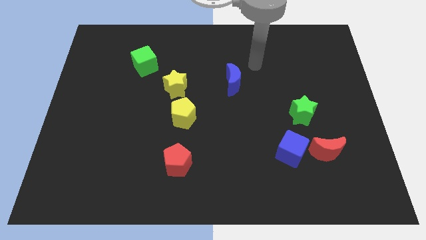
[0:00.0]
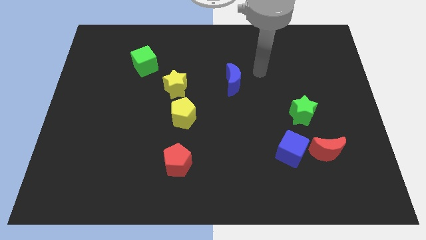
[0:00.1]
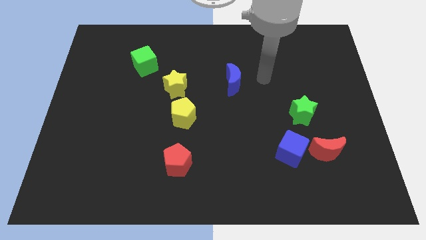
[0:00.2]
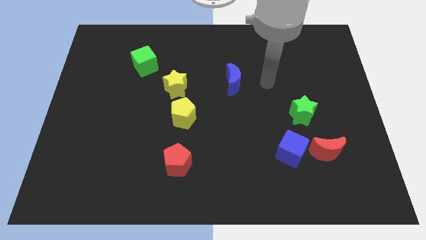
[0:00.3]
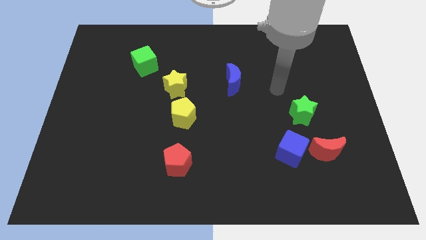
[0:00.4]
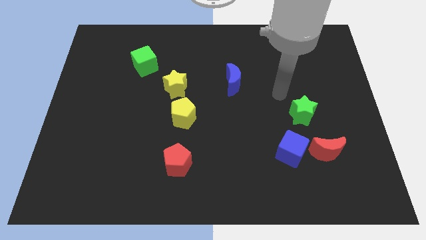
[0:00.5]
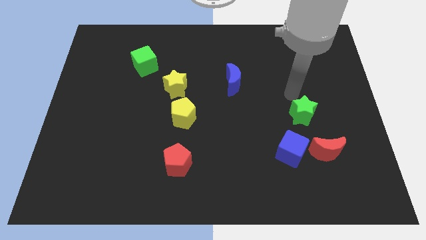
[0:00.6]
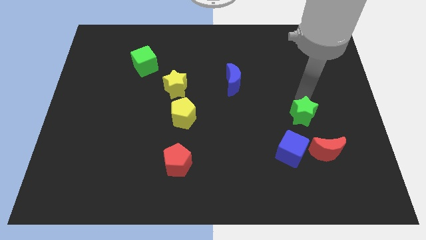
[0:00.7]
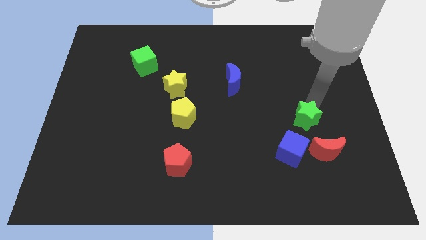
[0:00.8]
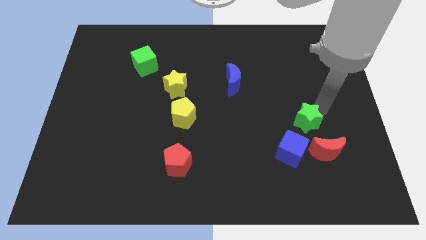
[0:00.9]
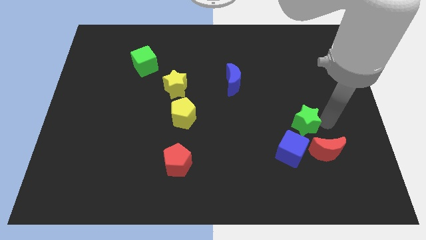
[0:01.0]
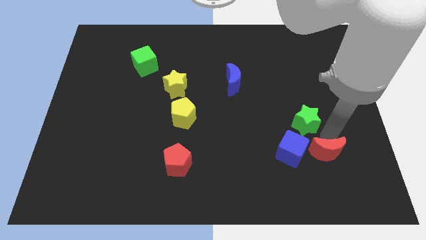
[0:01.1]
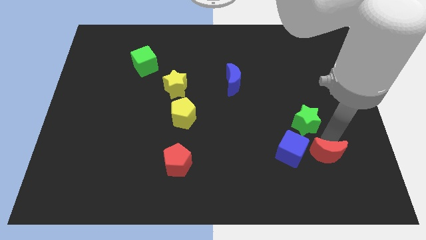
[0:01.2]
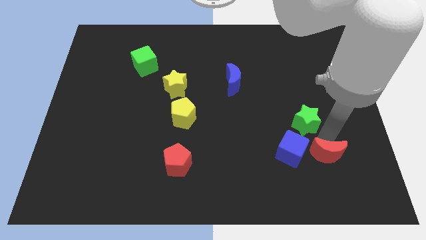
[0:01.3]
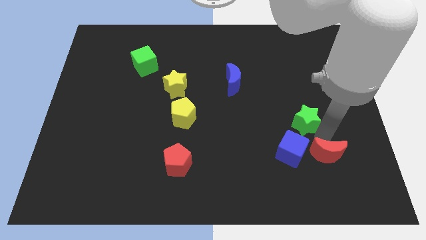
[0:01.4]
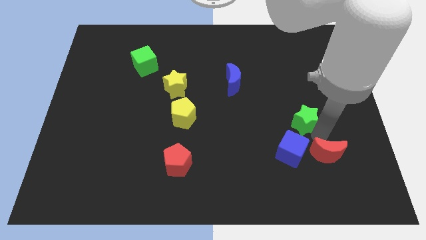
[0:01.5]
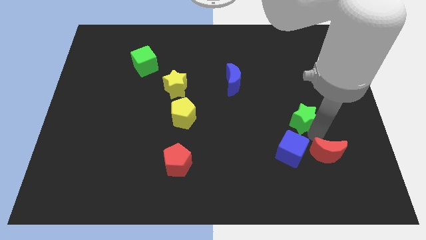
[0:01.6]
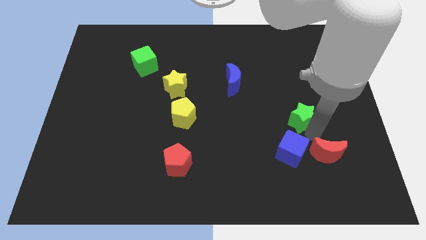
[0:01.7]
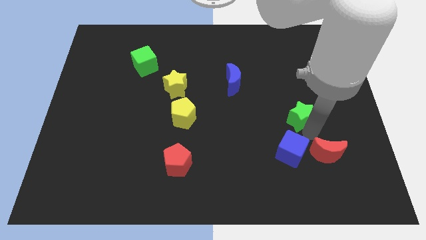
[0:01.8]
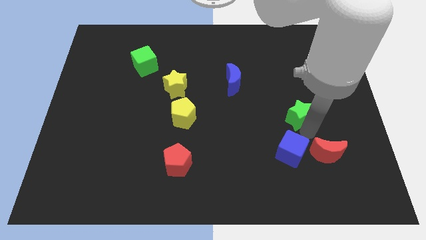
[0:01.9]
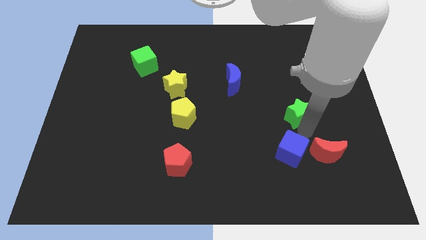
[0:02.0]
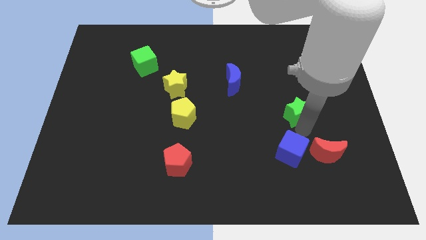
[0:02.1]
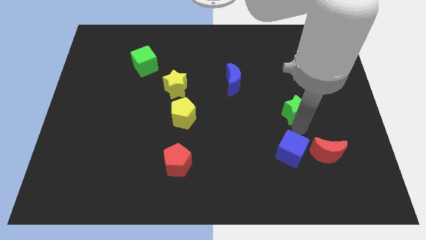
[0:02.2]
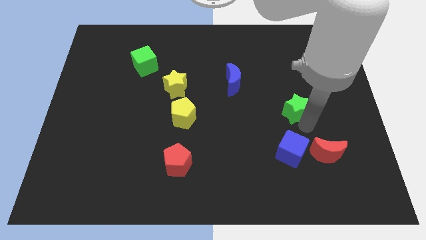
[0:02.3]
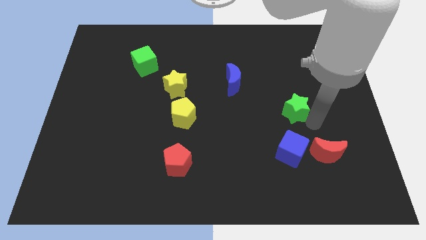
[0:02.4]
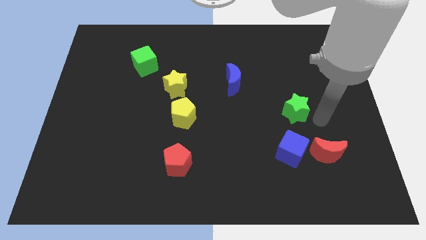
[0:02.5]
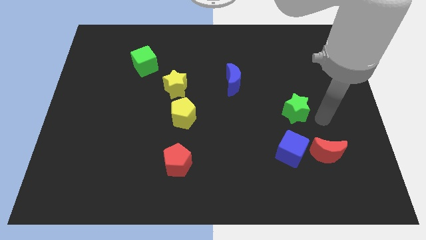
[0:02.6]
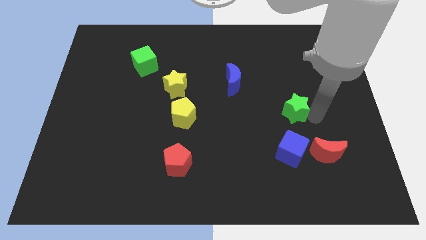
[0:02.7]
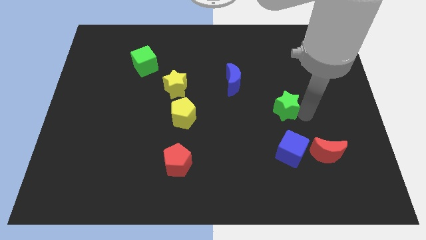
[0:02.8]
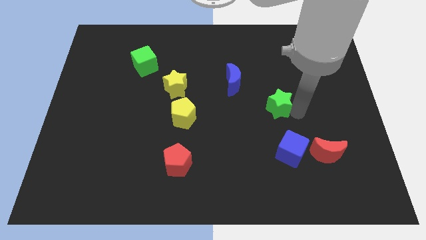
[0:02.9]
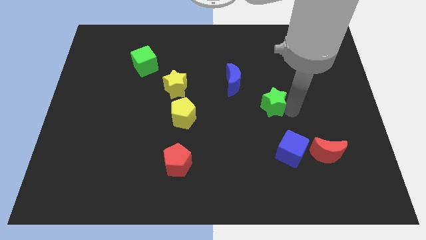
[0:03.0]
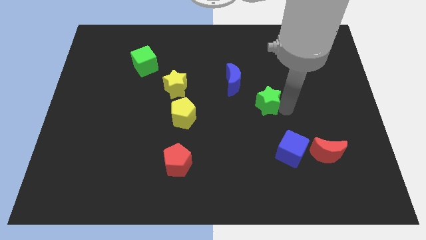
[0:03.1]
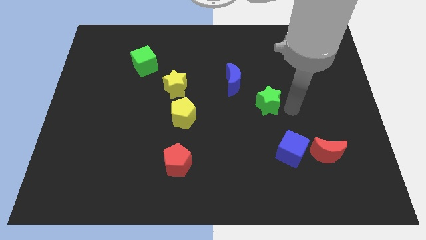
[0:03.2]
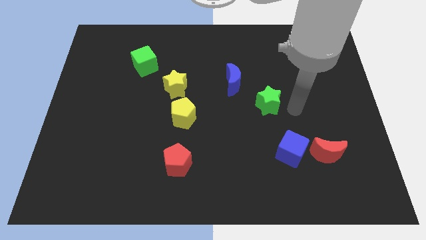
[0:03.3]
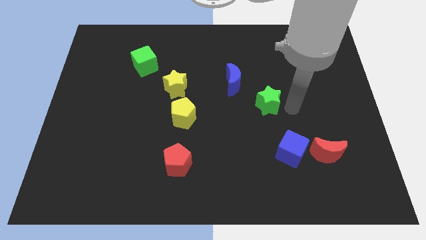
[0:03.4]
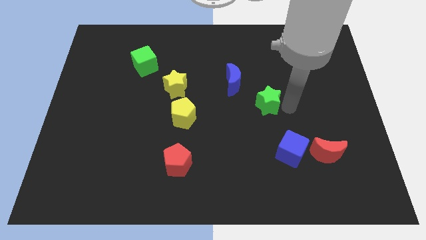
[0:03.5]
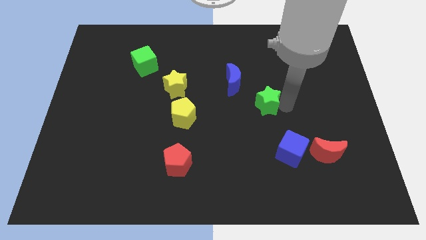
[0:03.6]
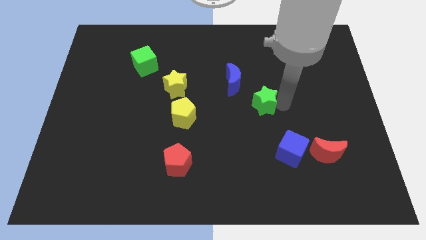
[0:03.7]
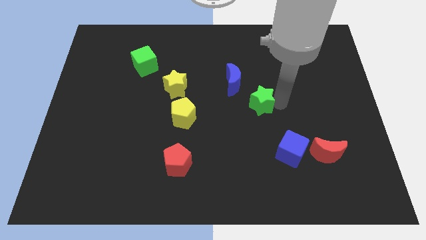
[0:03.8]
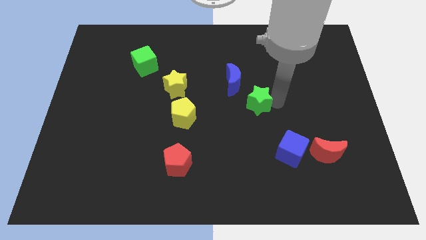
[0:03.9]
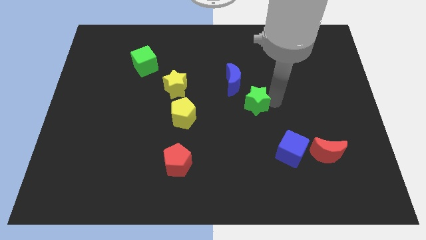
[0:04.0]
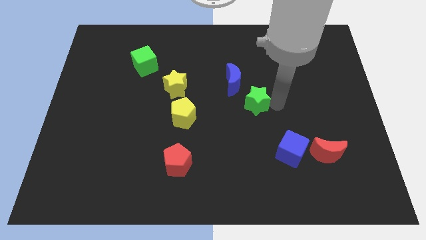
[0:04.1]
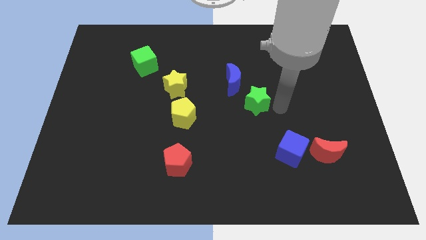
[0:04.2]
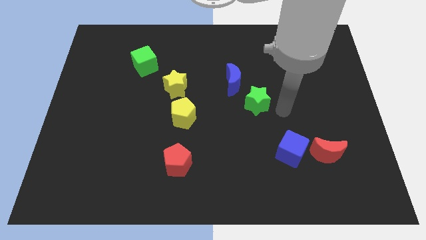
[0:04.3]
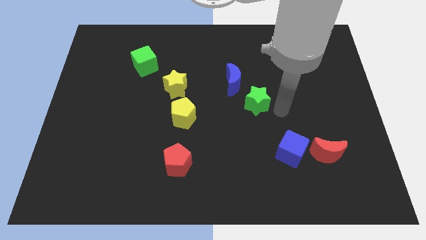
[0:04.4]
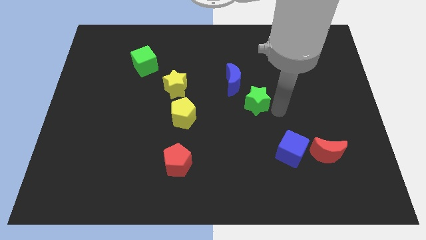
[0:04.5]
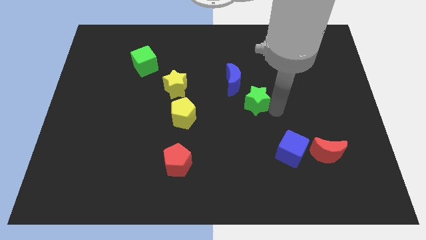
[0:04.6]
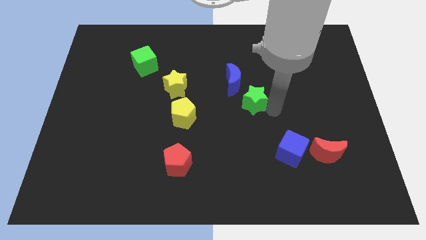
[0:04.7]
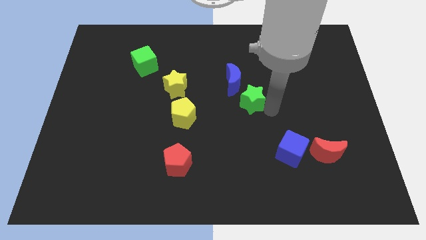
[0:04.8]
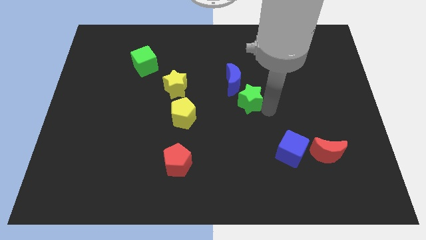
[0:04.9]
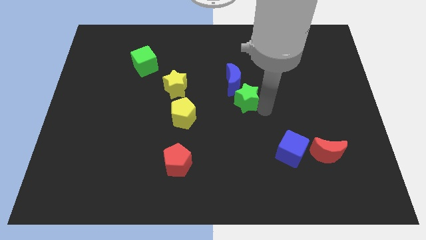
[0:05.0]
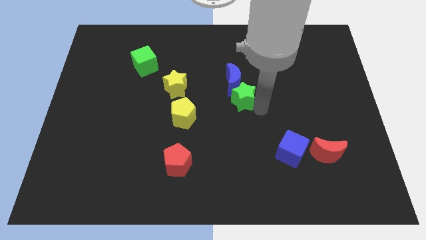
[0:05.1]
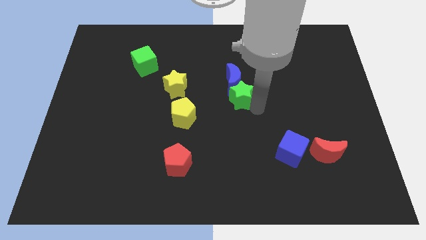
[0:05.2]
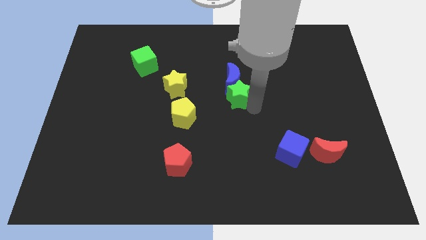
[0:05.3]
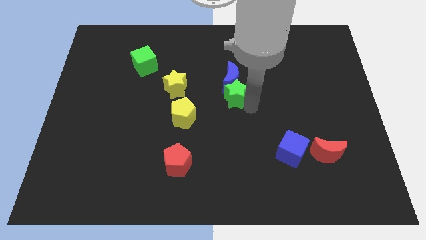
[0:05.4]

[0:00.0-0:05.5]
move the green star to the right of the yellow star
